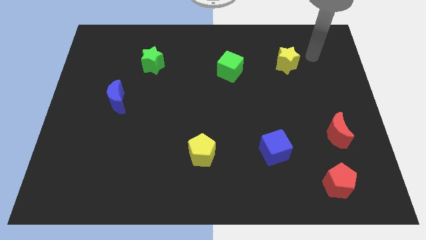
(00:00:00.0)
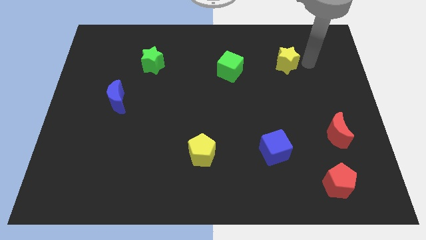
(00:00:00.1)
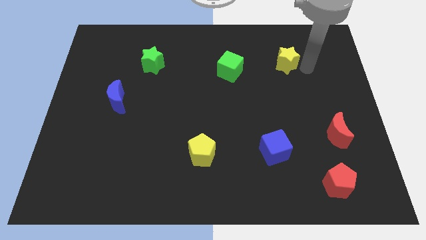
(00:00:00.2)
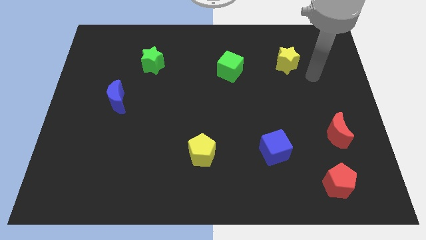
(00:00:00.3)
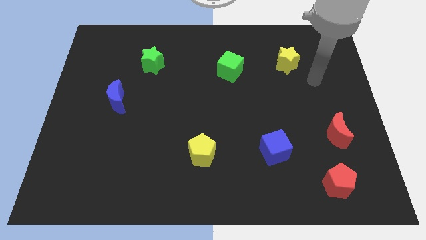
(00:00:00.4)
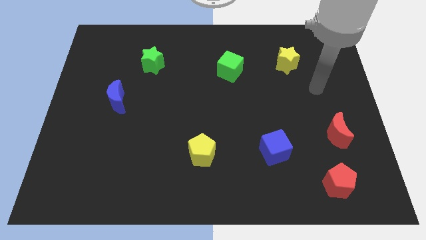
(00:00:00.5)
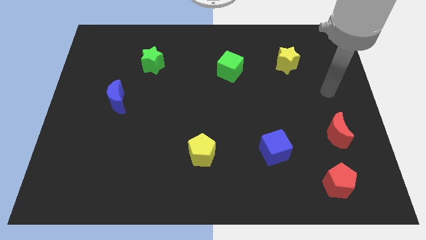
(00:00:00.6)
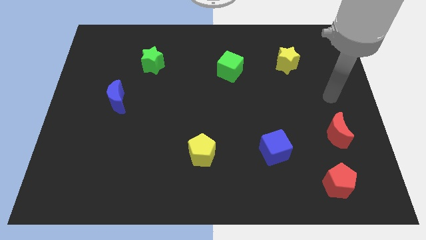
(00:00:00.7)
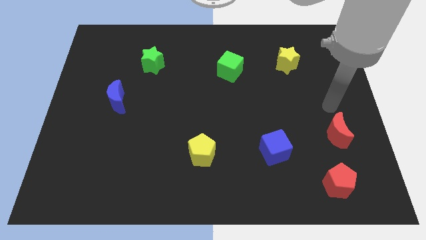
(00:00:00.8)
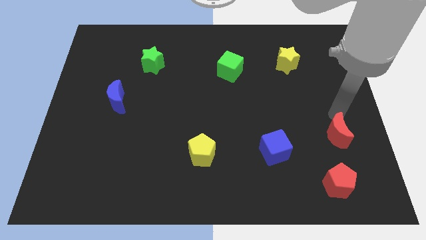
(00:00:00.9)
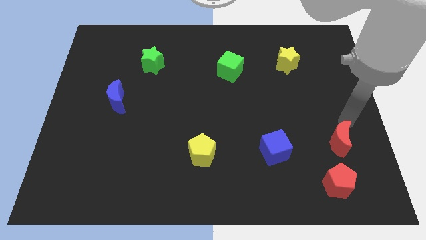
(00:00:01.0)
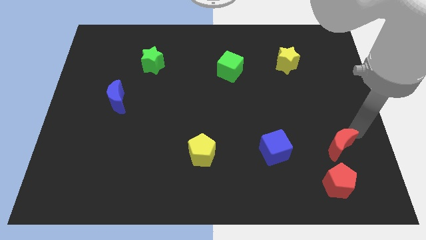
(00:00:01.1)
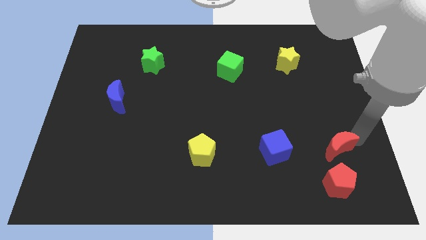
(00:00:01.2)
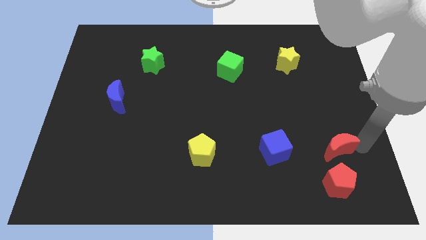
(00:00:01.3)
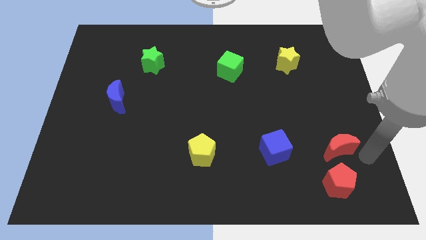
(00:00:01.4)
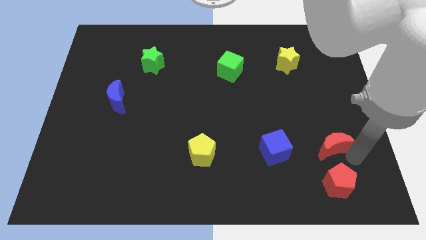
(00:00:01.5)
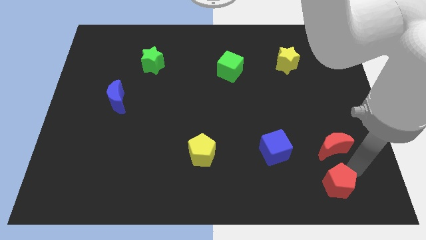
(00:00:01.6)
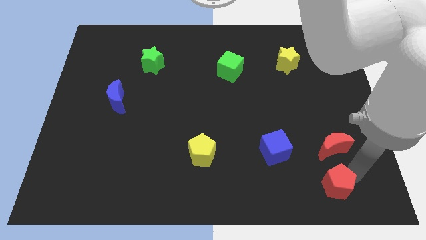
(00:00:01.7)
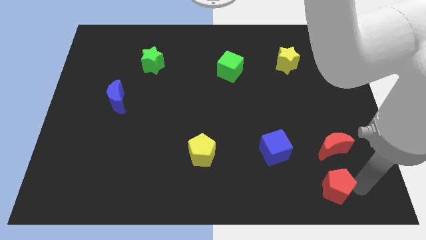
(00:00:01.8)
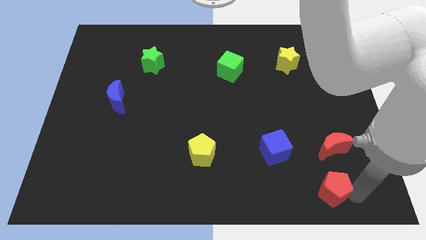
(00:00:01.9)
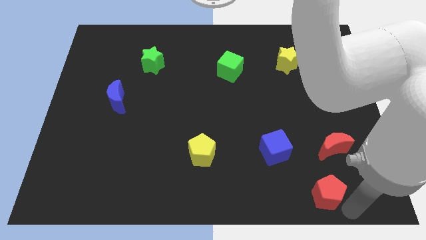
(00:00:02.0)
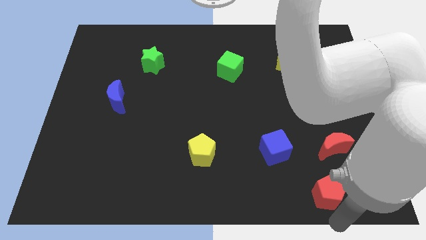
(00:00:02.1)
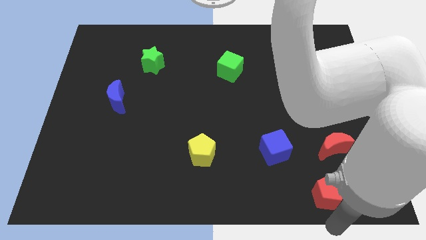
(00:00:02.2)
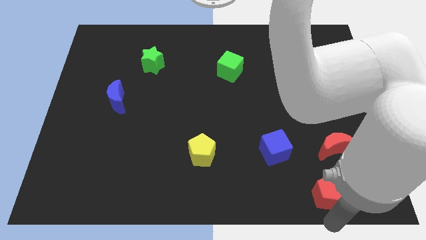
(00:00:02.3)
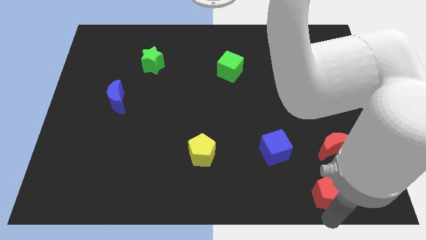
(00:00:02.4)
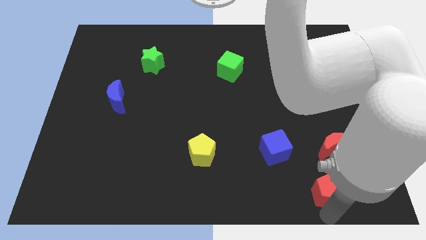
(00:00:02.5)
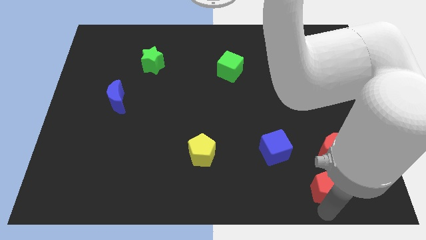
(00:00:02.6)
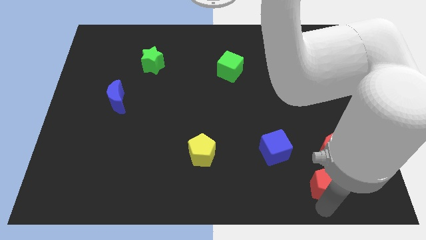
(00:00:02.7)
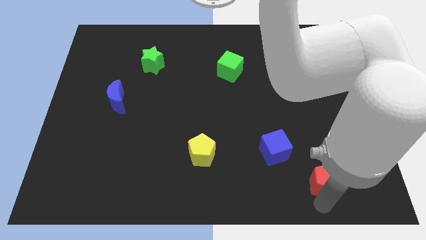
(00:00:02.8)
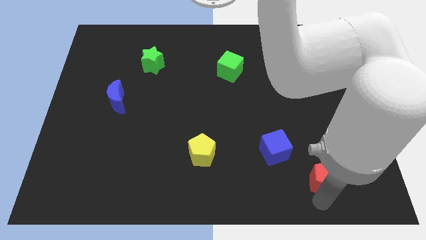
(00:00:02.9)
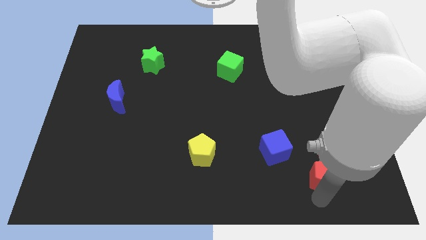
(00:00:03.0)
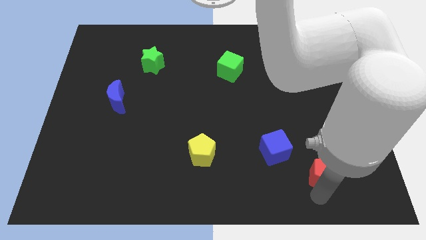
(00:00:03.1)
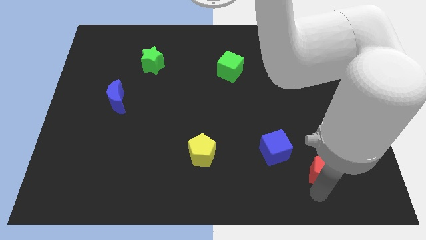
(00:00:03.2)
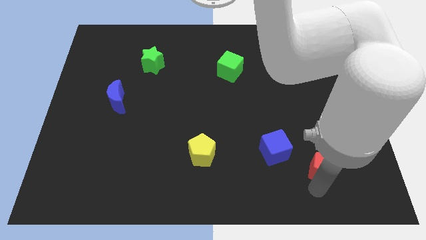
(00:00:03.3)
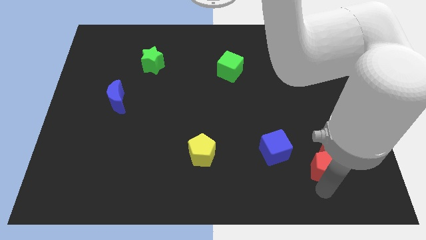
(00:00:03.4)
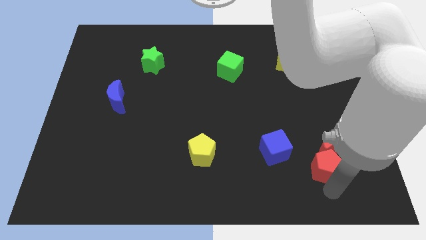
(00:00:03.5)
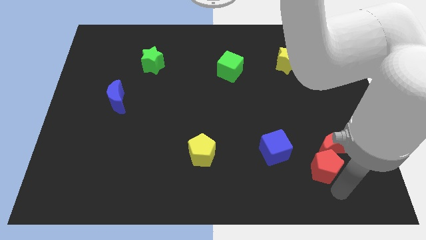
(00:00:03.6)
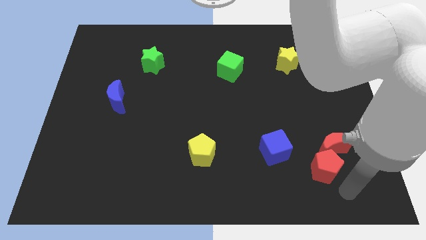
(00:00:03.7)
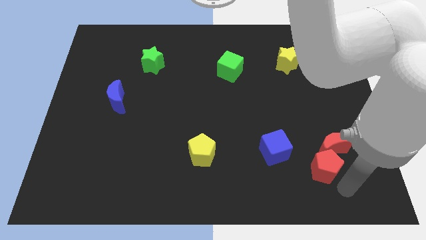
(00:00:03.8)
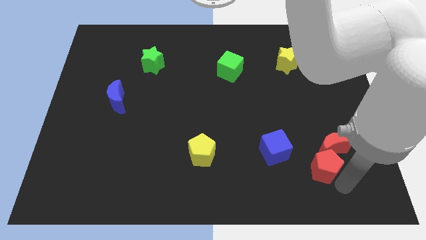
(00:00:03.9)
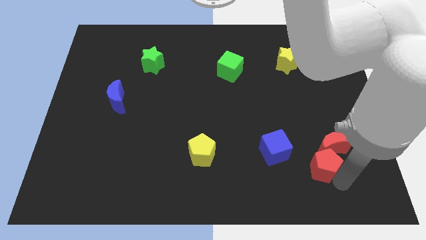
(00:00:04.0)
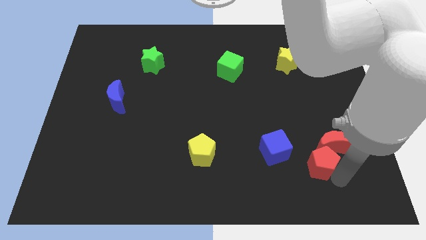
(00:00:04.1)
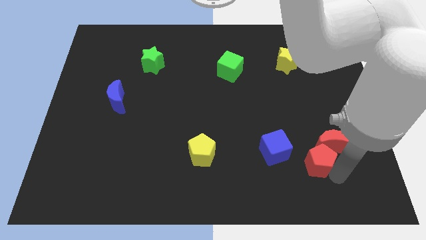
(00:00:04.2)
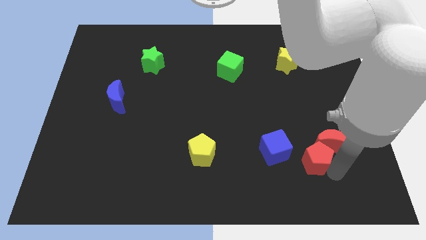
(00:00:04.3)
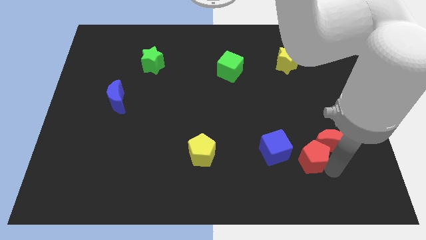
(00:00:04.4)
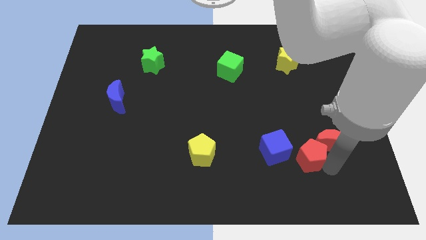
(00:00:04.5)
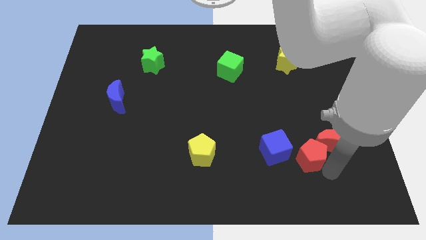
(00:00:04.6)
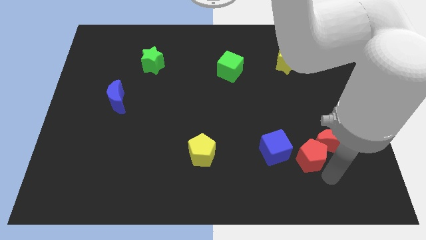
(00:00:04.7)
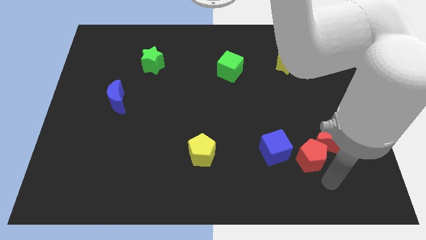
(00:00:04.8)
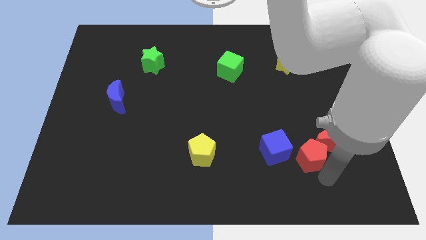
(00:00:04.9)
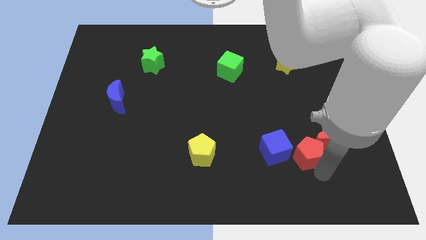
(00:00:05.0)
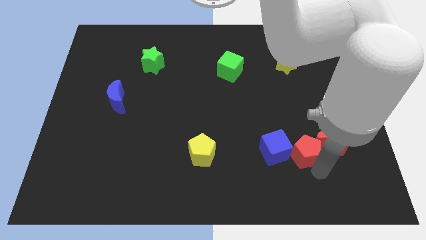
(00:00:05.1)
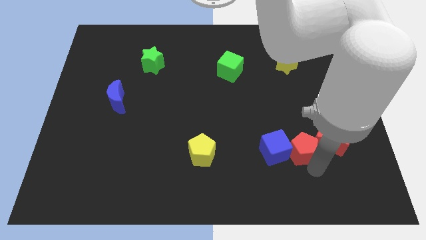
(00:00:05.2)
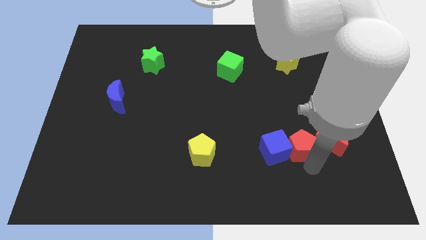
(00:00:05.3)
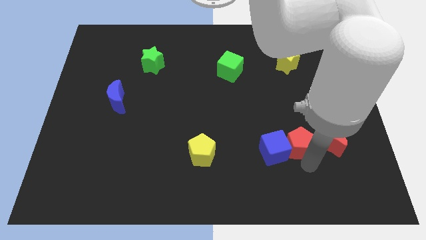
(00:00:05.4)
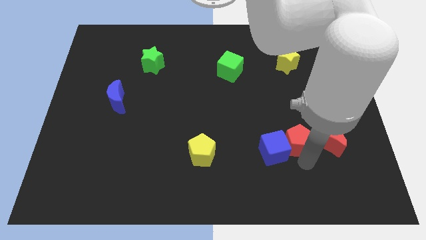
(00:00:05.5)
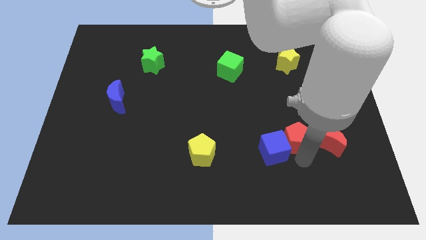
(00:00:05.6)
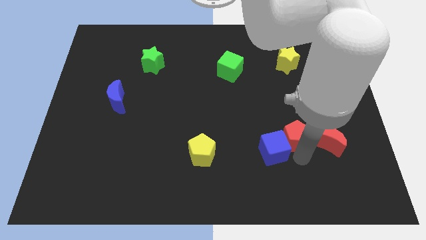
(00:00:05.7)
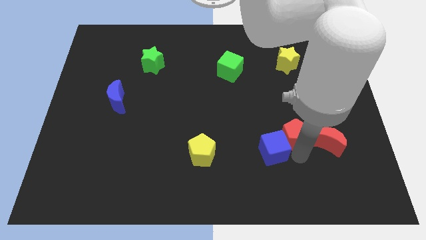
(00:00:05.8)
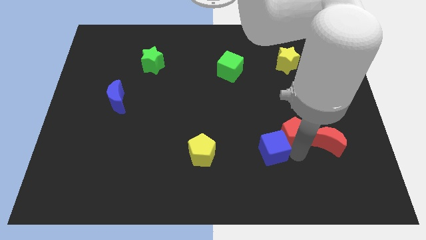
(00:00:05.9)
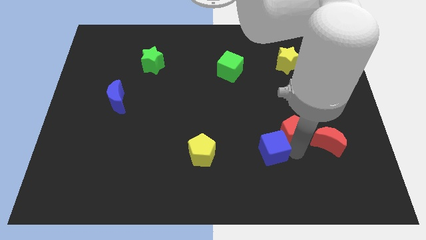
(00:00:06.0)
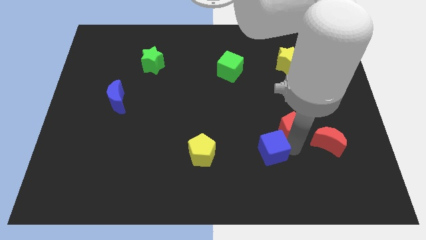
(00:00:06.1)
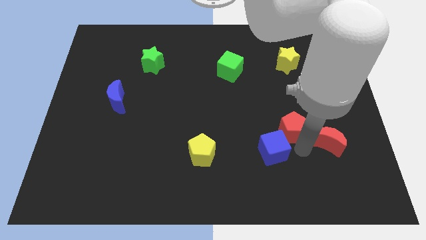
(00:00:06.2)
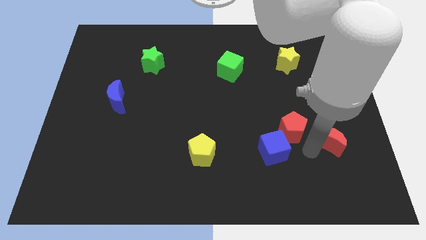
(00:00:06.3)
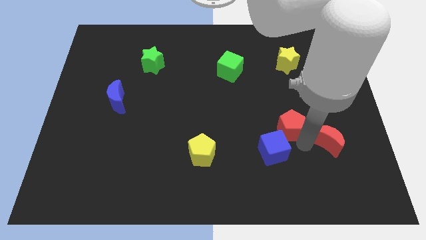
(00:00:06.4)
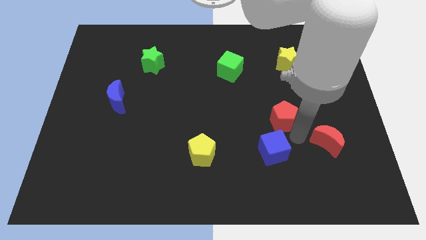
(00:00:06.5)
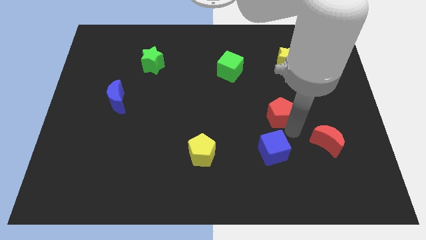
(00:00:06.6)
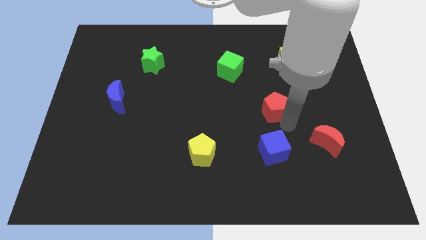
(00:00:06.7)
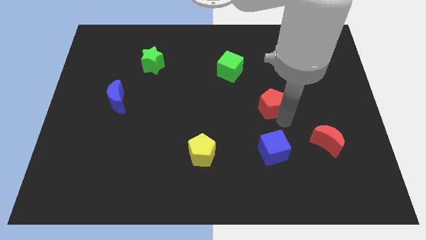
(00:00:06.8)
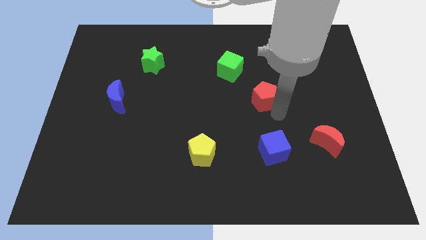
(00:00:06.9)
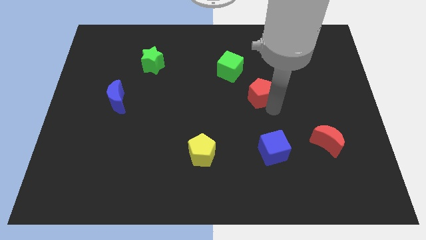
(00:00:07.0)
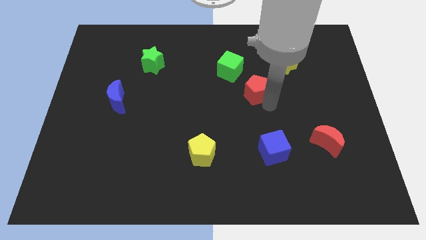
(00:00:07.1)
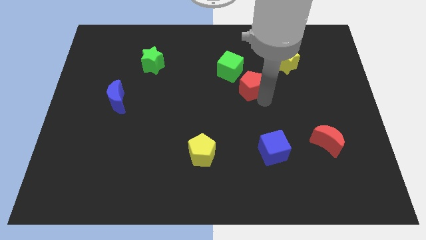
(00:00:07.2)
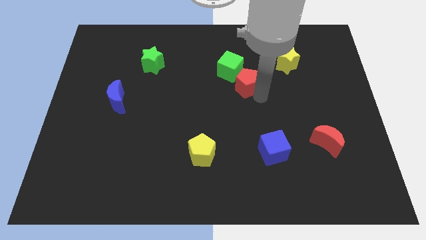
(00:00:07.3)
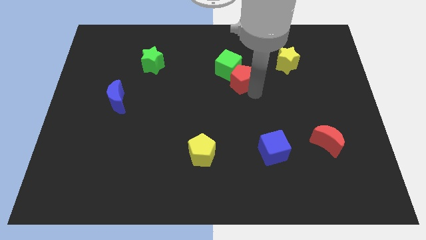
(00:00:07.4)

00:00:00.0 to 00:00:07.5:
slide the red pentagon next to the green cube
